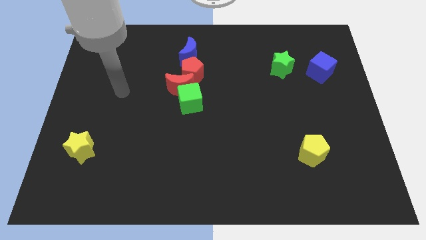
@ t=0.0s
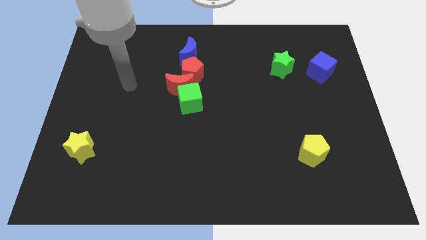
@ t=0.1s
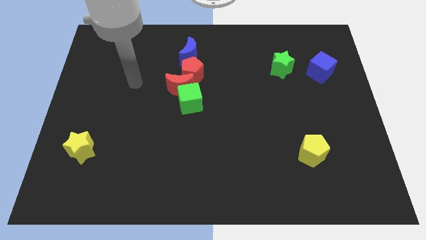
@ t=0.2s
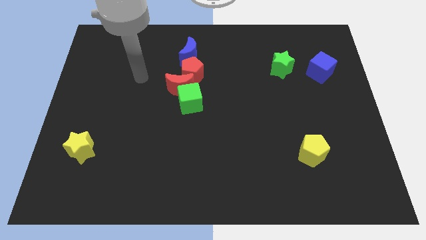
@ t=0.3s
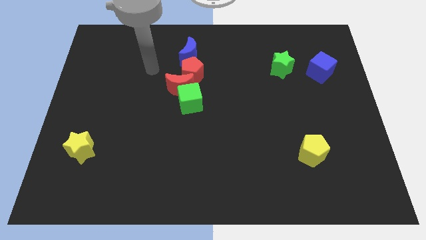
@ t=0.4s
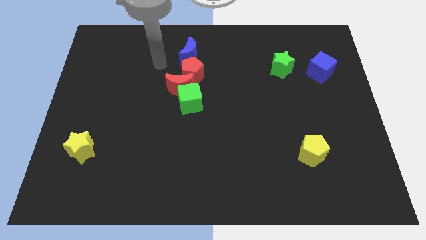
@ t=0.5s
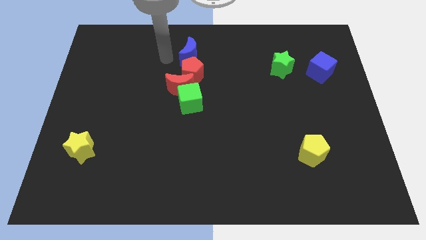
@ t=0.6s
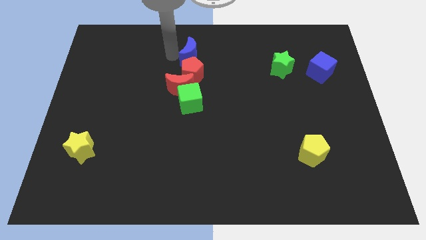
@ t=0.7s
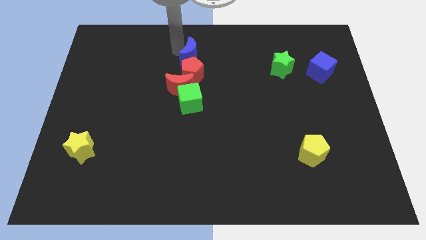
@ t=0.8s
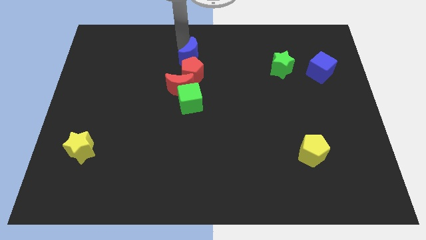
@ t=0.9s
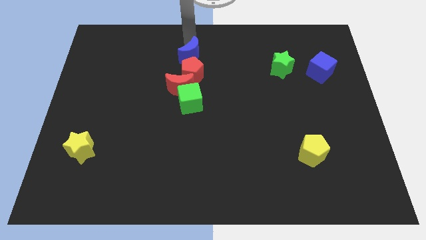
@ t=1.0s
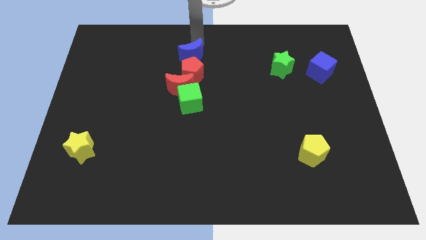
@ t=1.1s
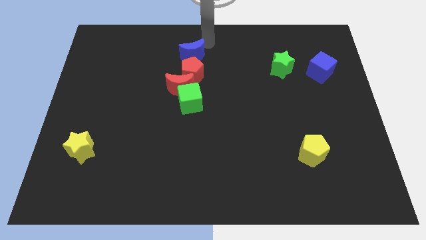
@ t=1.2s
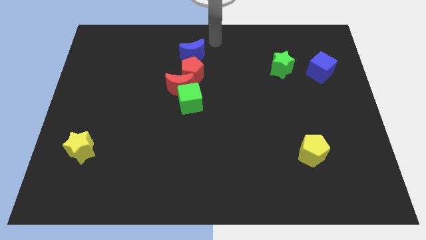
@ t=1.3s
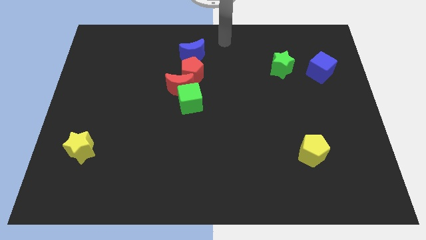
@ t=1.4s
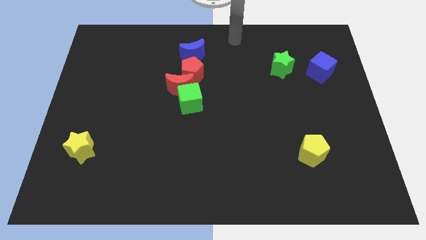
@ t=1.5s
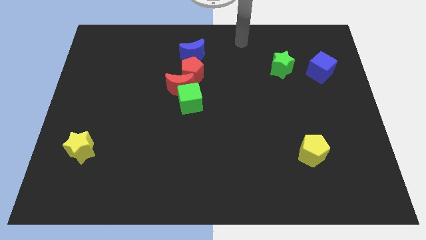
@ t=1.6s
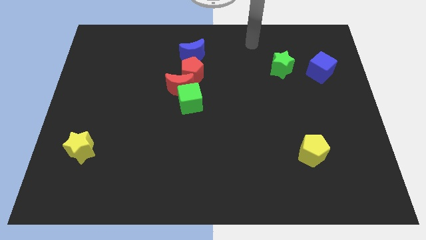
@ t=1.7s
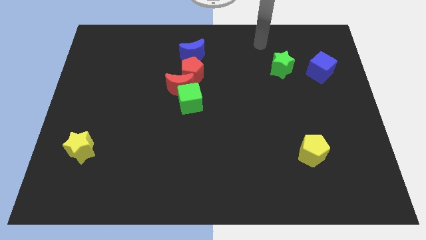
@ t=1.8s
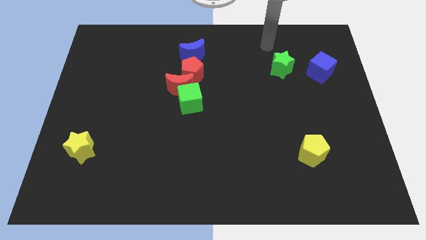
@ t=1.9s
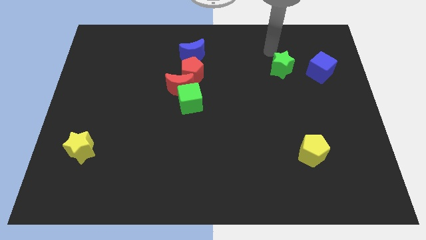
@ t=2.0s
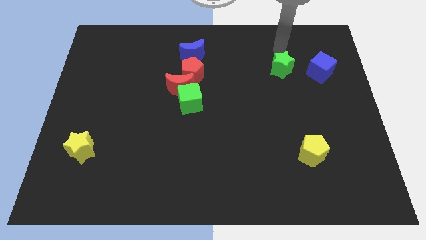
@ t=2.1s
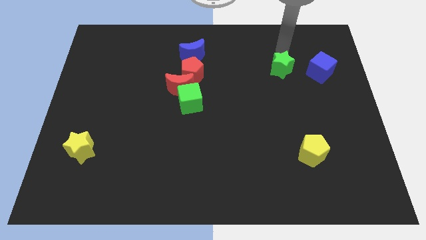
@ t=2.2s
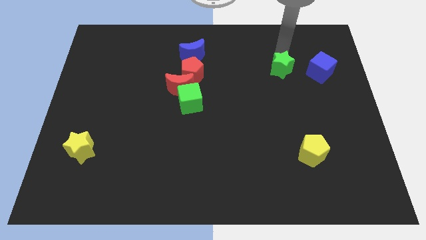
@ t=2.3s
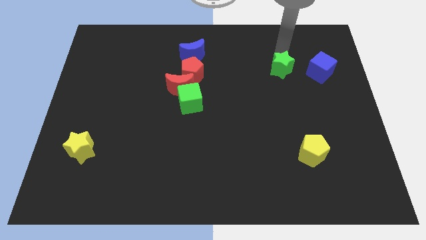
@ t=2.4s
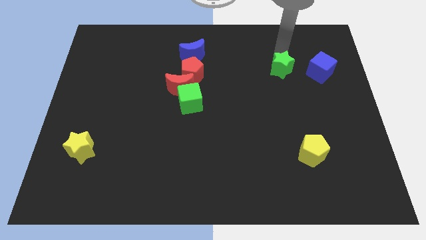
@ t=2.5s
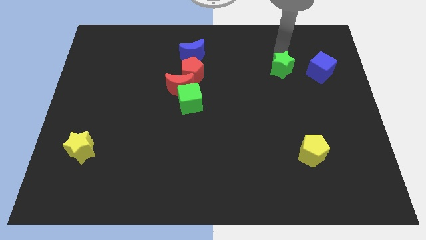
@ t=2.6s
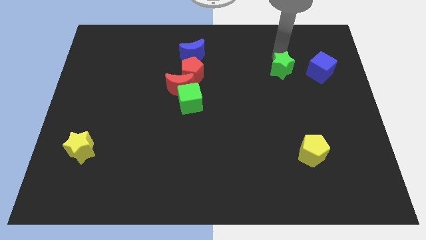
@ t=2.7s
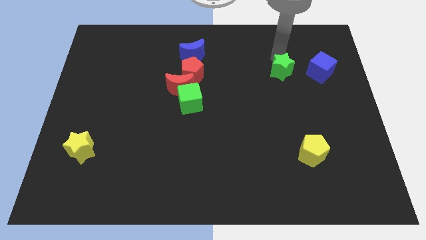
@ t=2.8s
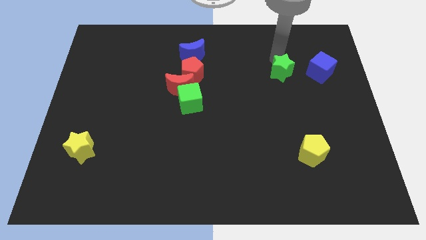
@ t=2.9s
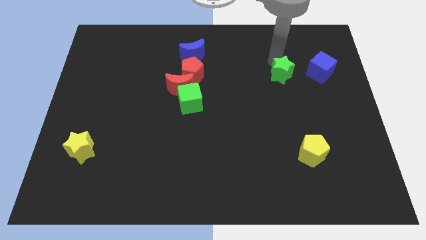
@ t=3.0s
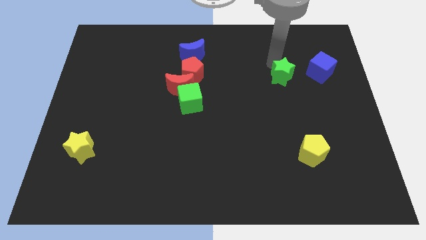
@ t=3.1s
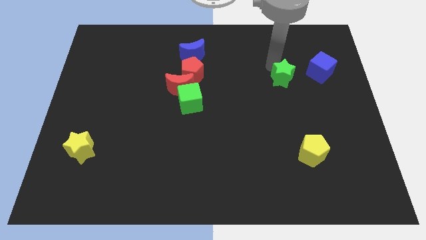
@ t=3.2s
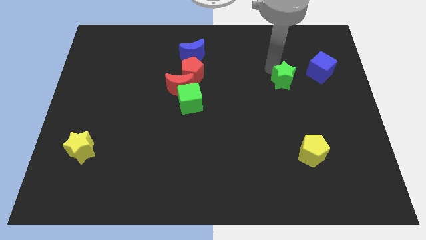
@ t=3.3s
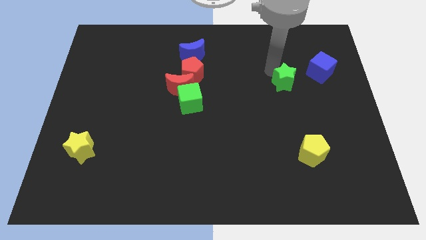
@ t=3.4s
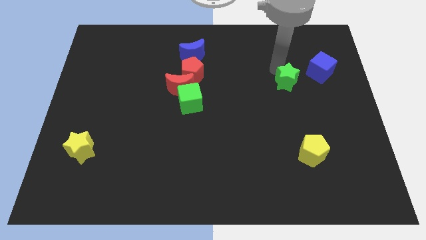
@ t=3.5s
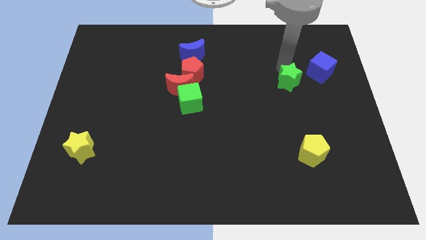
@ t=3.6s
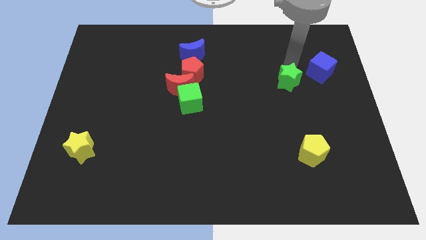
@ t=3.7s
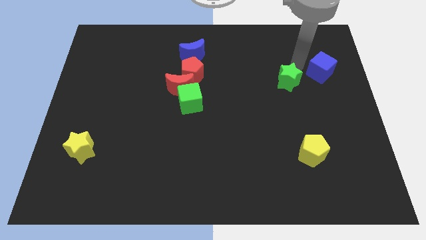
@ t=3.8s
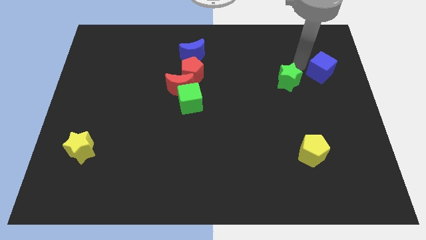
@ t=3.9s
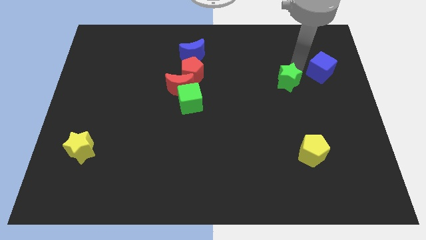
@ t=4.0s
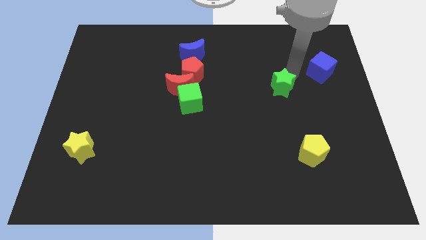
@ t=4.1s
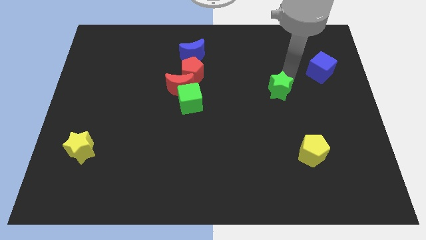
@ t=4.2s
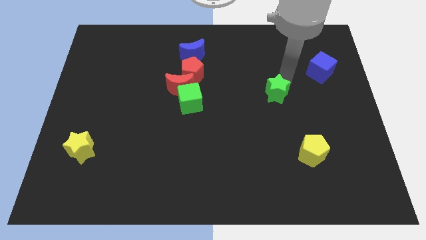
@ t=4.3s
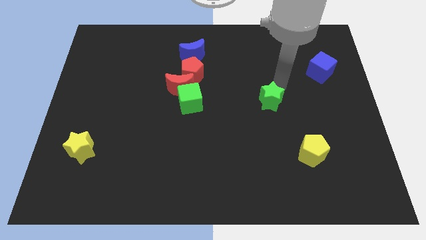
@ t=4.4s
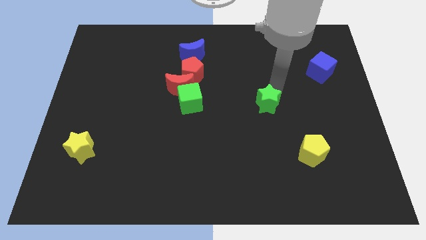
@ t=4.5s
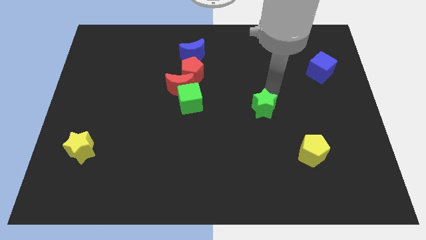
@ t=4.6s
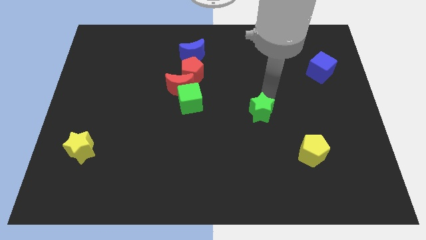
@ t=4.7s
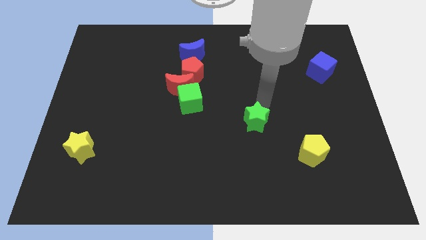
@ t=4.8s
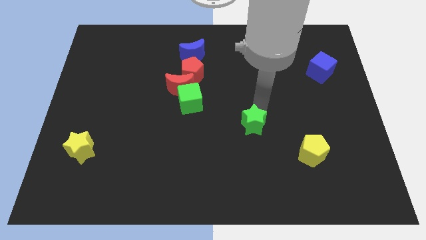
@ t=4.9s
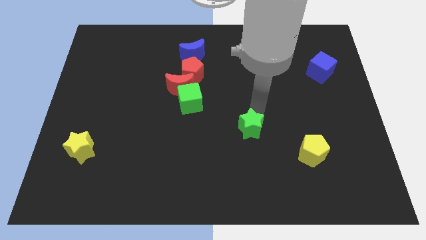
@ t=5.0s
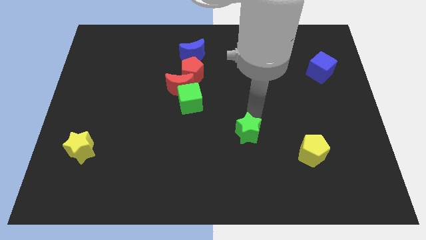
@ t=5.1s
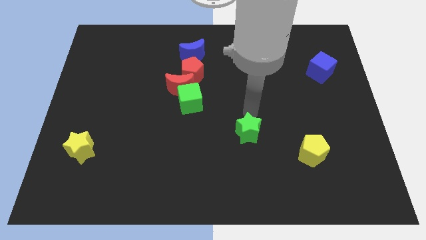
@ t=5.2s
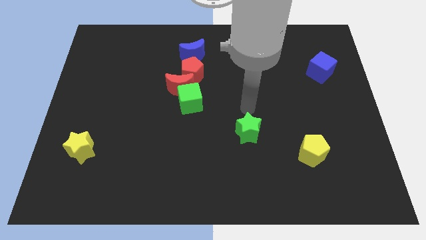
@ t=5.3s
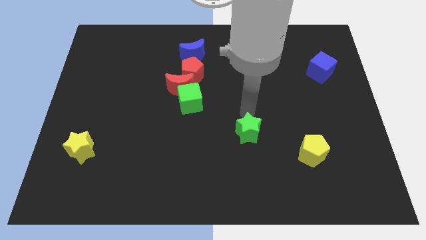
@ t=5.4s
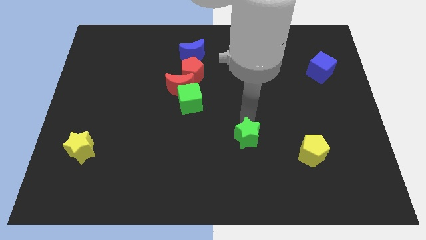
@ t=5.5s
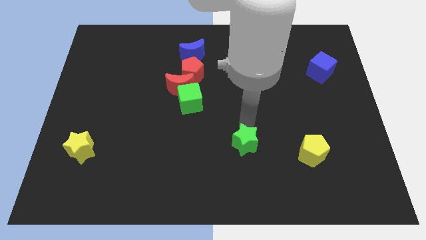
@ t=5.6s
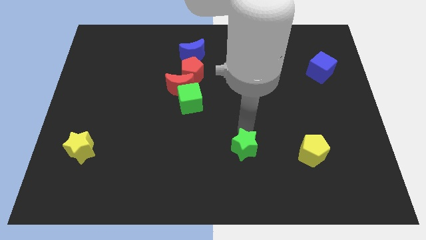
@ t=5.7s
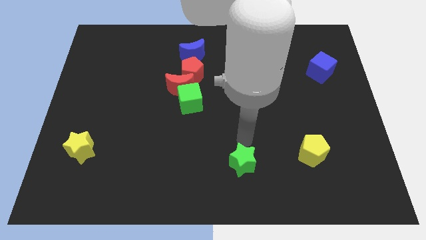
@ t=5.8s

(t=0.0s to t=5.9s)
put the green star to the bottom side

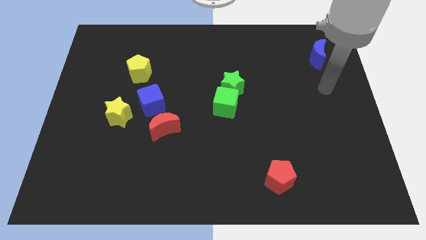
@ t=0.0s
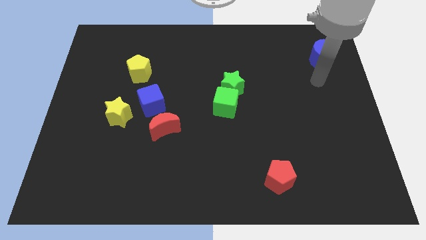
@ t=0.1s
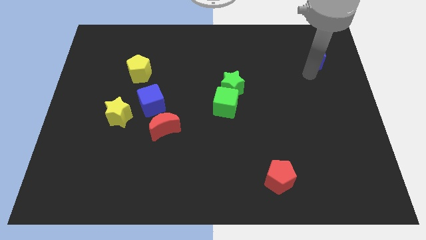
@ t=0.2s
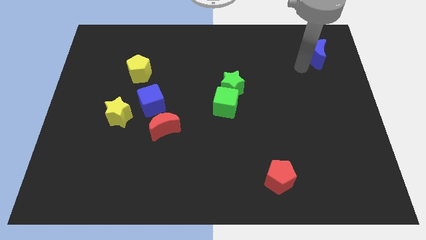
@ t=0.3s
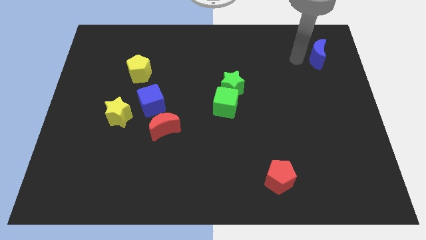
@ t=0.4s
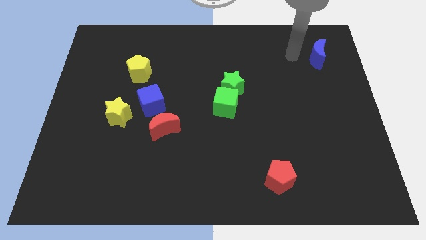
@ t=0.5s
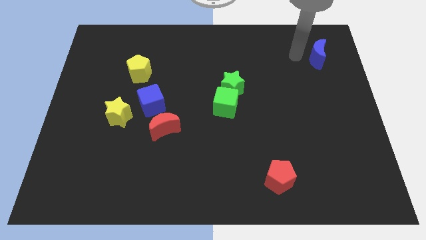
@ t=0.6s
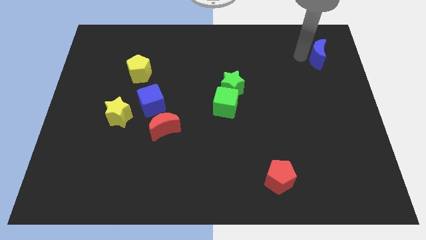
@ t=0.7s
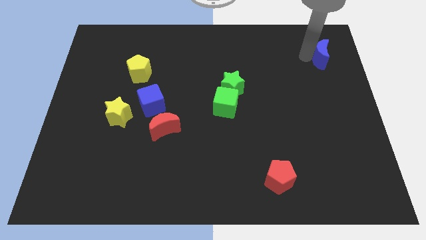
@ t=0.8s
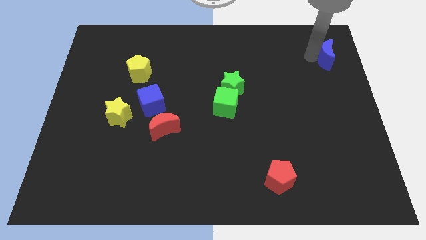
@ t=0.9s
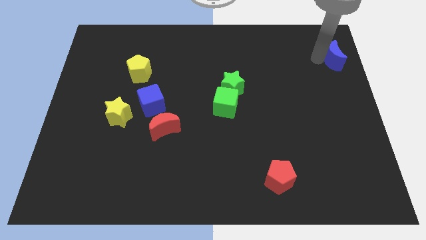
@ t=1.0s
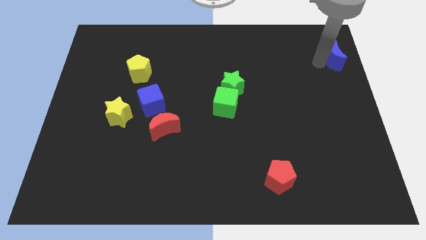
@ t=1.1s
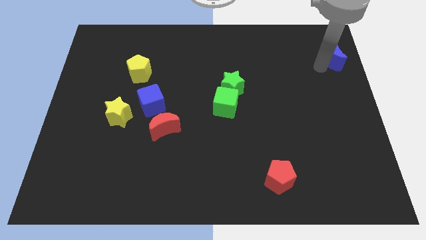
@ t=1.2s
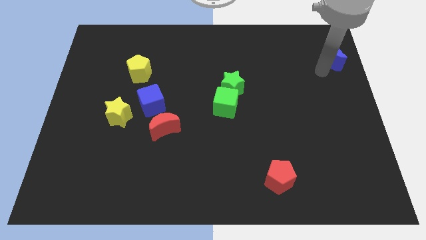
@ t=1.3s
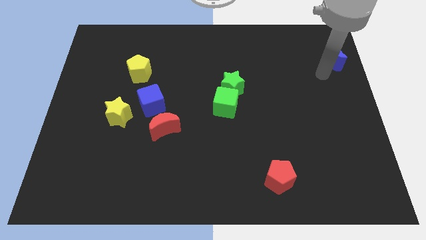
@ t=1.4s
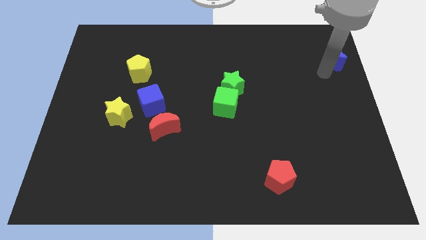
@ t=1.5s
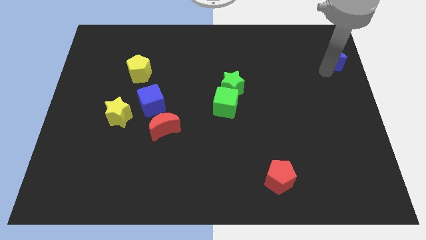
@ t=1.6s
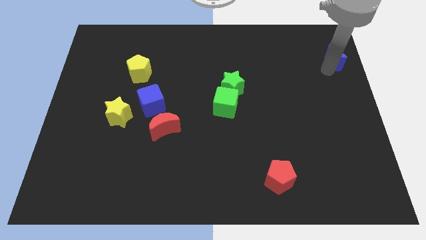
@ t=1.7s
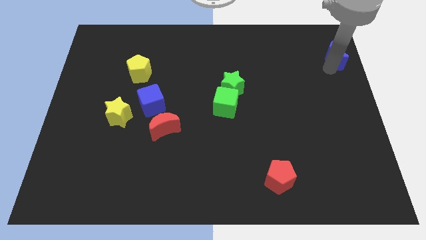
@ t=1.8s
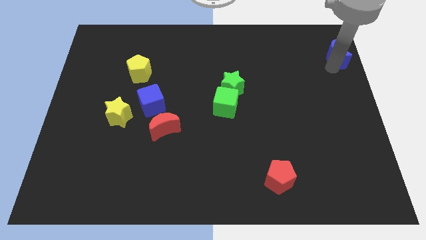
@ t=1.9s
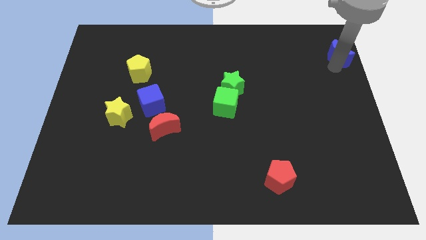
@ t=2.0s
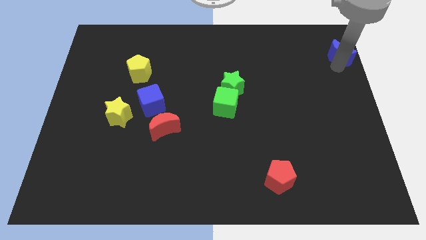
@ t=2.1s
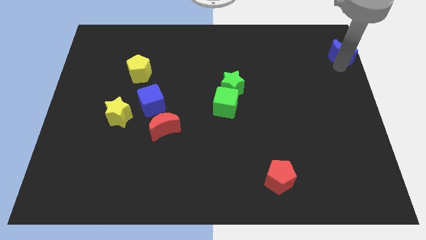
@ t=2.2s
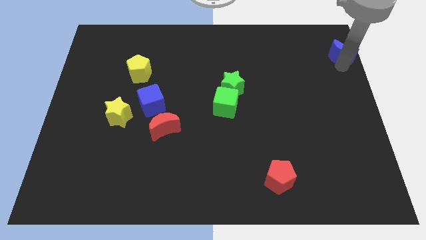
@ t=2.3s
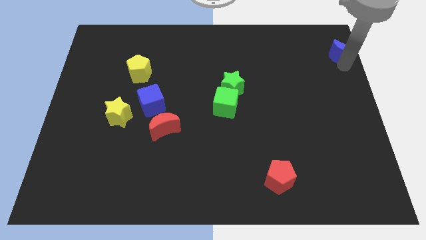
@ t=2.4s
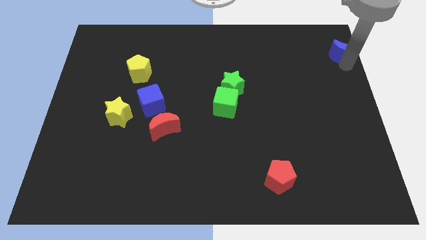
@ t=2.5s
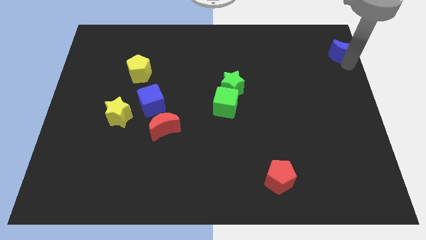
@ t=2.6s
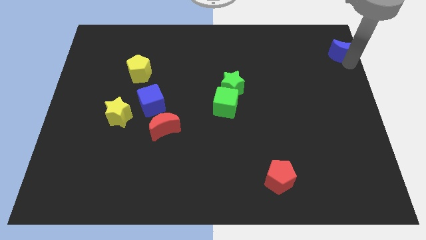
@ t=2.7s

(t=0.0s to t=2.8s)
push the blue moon to the top right
